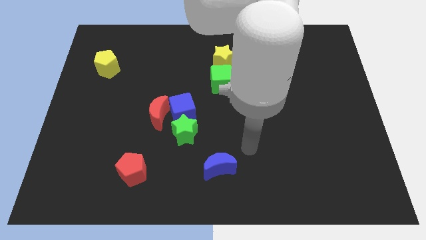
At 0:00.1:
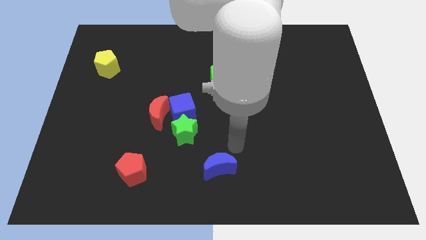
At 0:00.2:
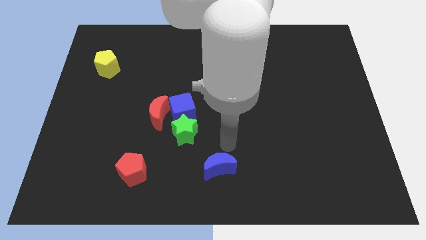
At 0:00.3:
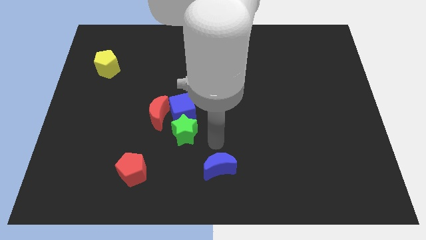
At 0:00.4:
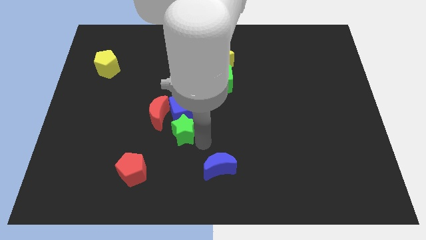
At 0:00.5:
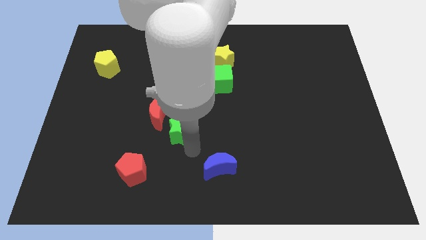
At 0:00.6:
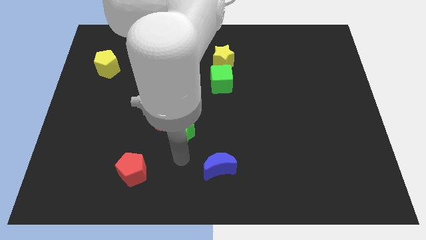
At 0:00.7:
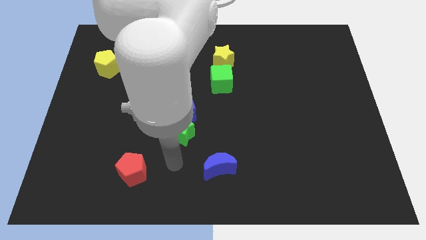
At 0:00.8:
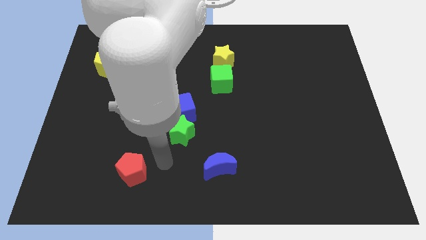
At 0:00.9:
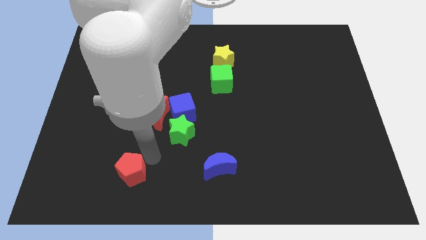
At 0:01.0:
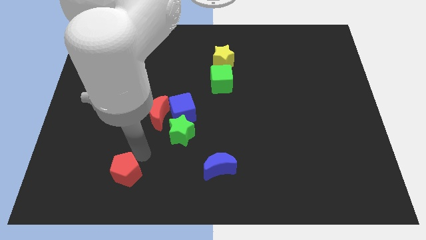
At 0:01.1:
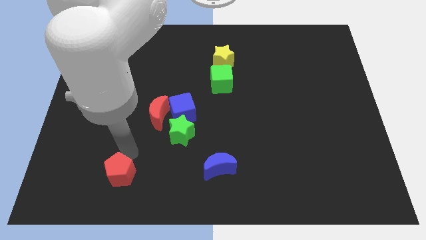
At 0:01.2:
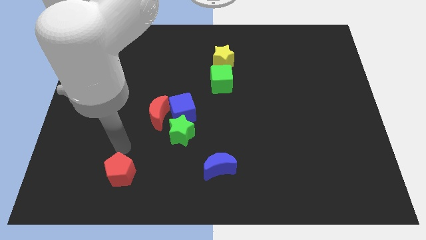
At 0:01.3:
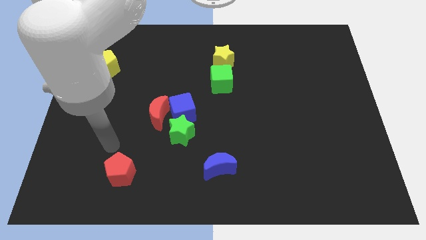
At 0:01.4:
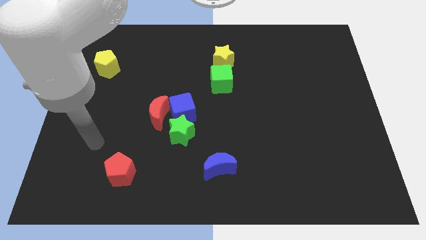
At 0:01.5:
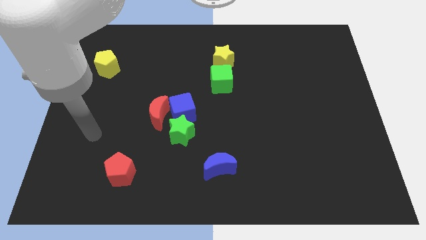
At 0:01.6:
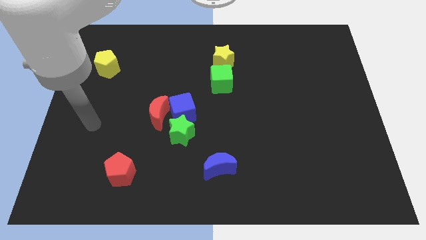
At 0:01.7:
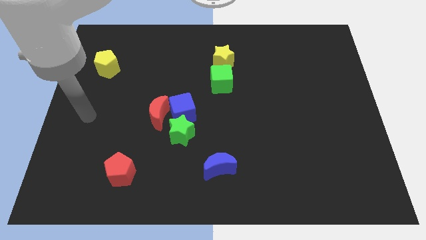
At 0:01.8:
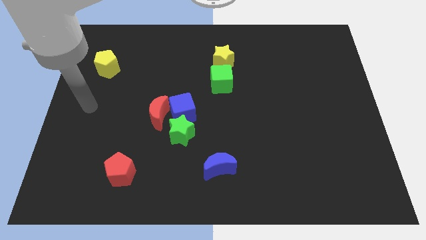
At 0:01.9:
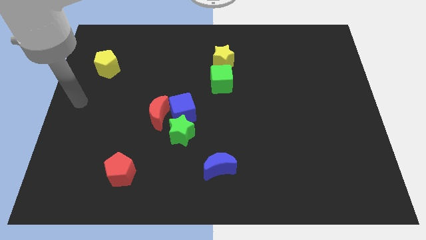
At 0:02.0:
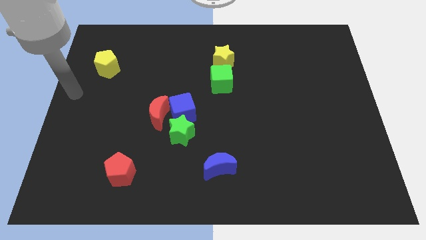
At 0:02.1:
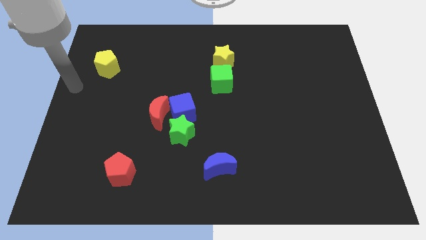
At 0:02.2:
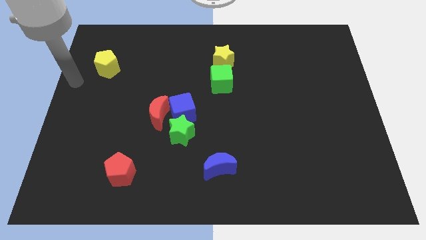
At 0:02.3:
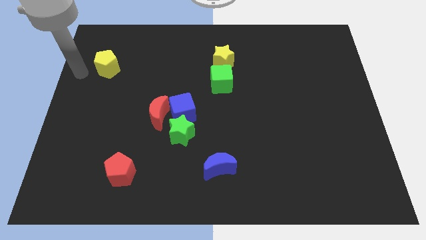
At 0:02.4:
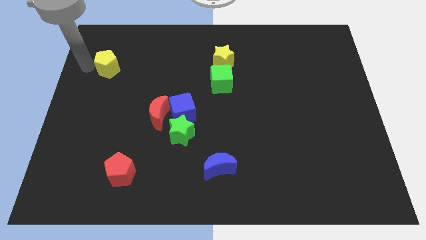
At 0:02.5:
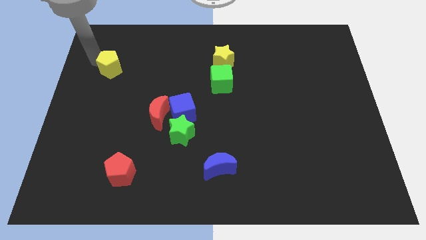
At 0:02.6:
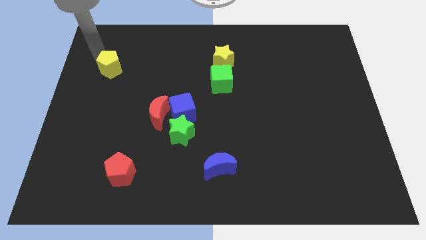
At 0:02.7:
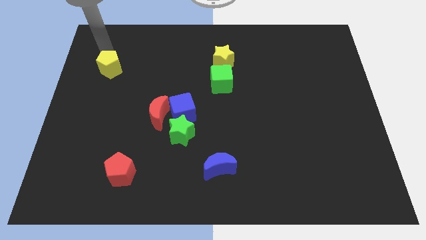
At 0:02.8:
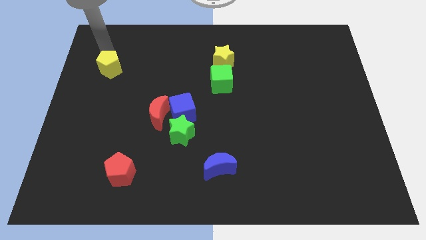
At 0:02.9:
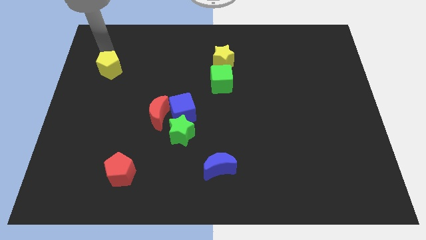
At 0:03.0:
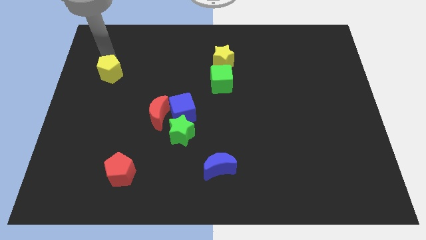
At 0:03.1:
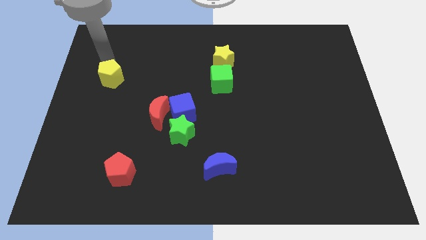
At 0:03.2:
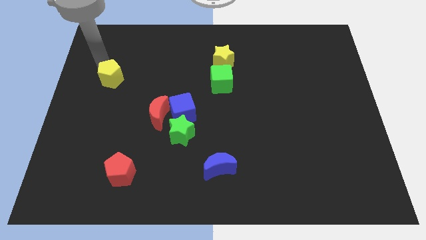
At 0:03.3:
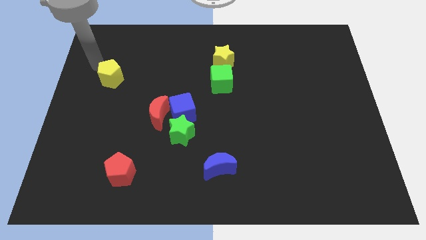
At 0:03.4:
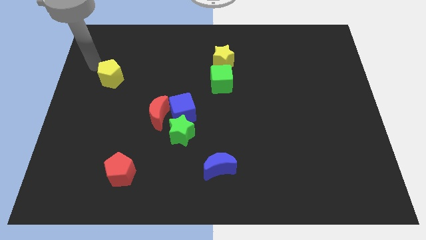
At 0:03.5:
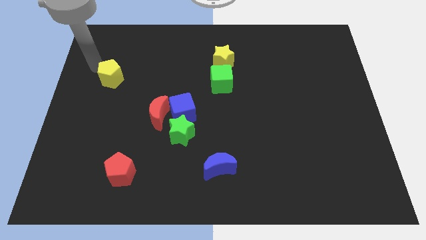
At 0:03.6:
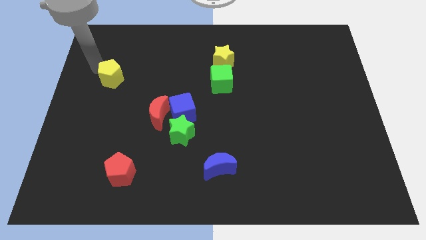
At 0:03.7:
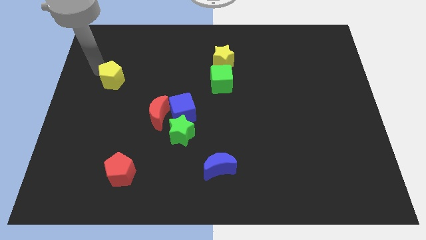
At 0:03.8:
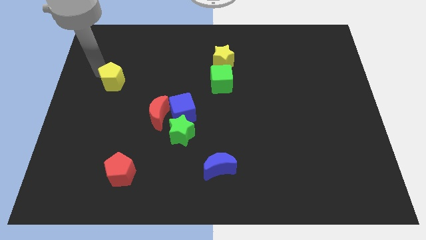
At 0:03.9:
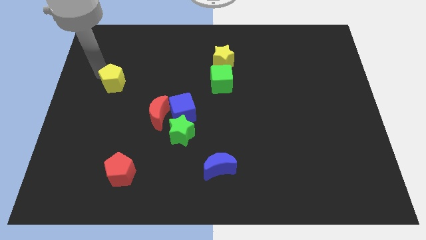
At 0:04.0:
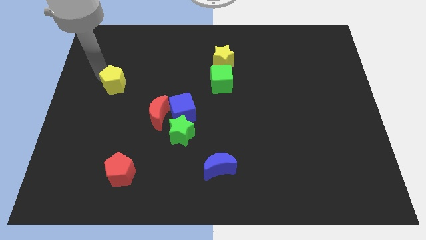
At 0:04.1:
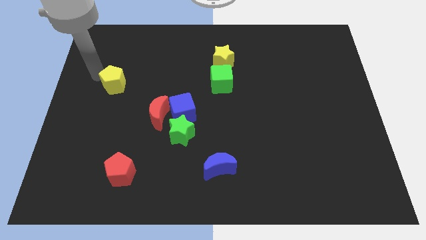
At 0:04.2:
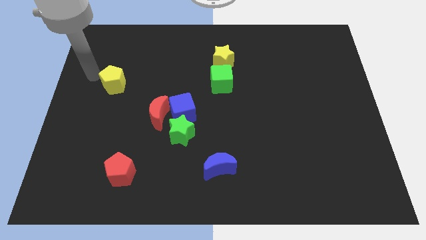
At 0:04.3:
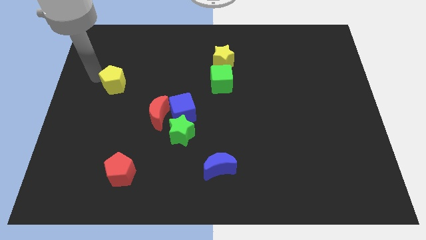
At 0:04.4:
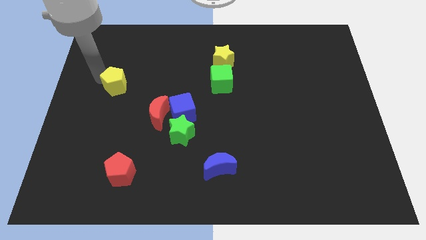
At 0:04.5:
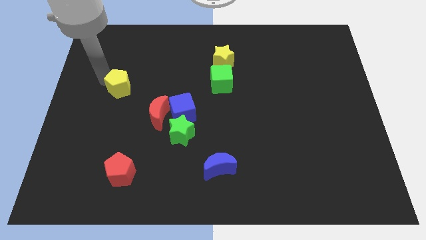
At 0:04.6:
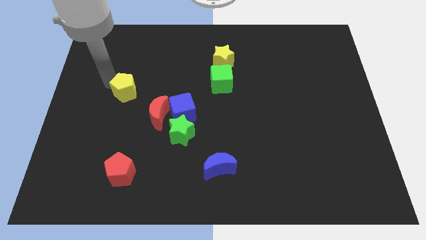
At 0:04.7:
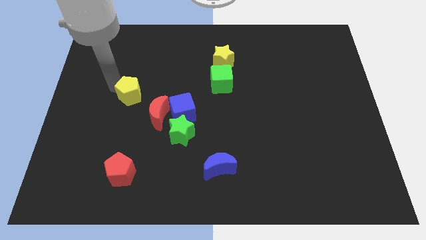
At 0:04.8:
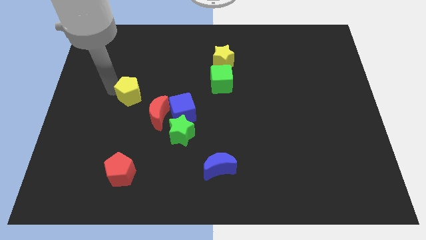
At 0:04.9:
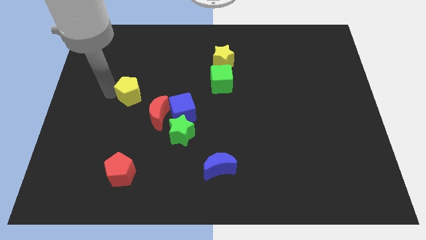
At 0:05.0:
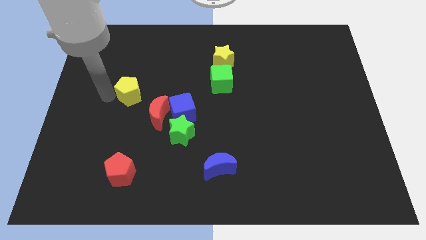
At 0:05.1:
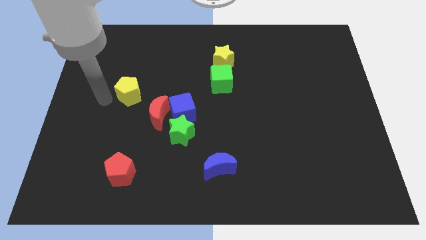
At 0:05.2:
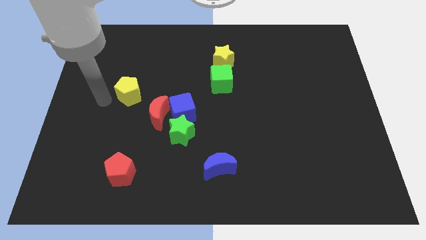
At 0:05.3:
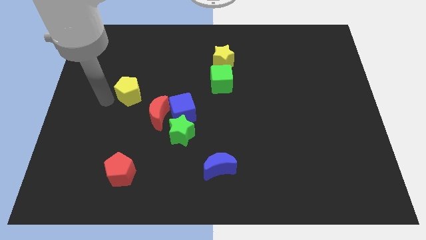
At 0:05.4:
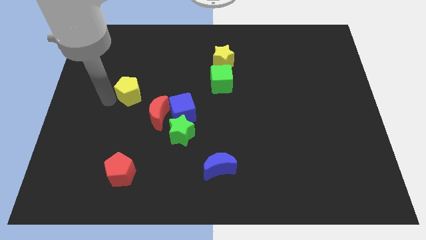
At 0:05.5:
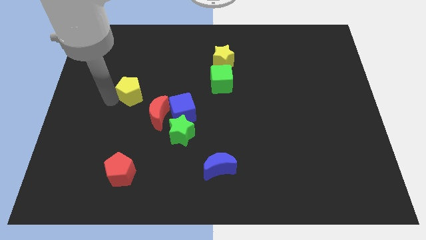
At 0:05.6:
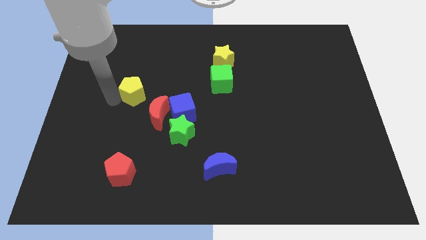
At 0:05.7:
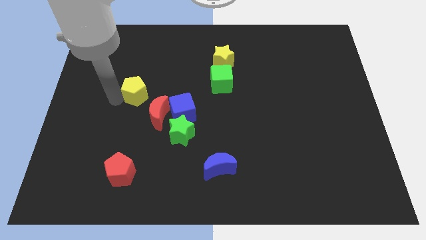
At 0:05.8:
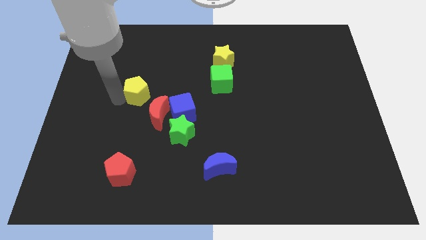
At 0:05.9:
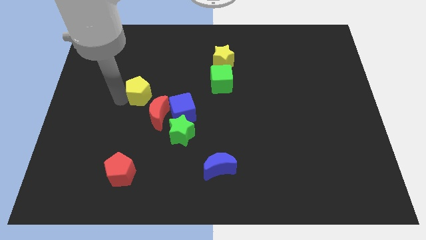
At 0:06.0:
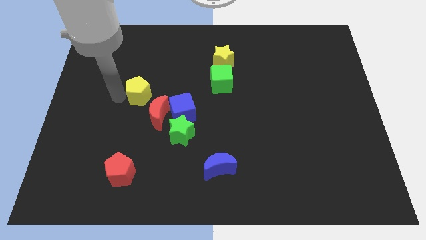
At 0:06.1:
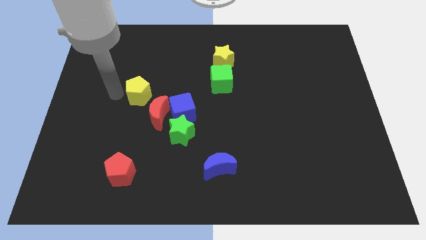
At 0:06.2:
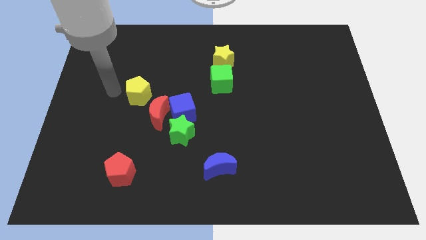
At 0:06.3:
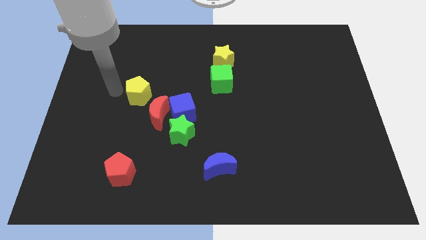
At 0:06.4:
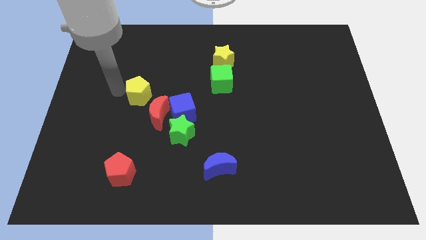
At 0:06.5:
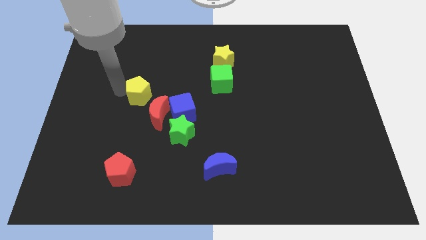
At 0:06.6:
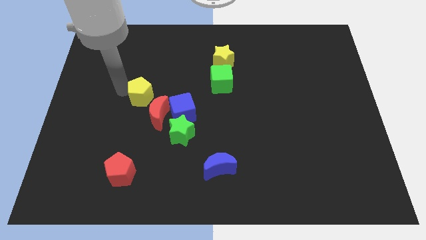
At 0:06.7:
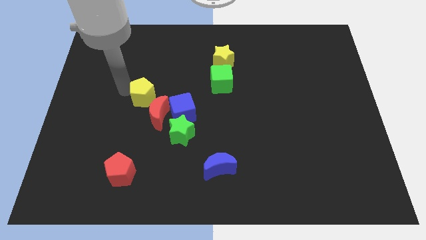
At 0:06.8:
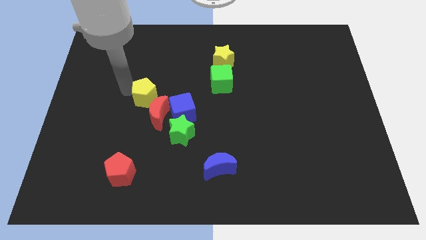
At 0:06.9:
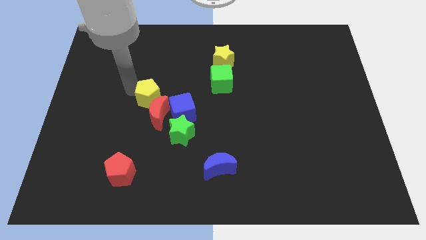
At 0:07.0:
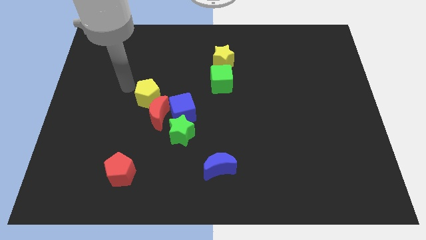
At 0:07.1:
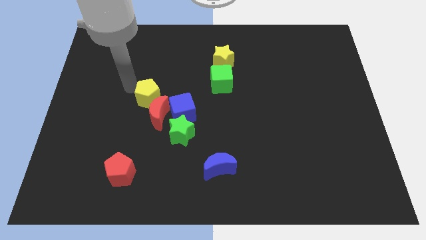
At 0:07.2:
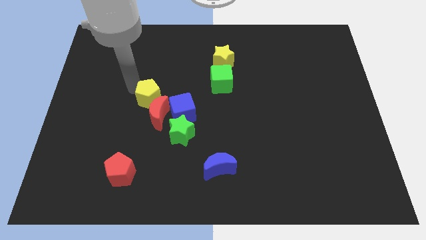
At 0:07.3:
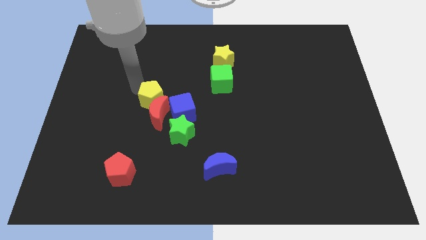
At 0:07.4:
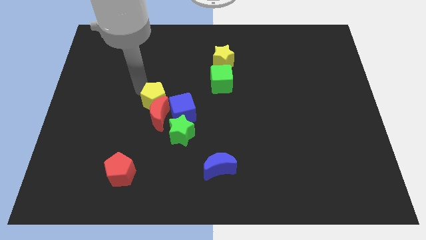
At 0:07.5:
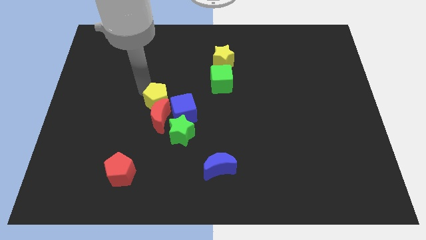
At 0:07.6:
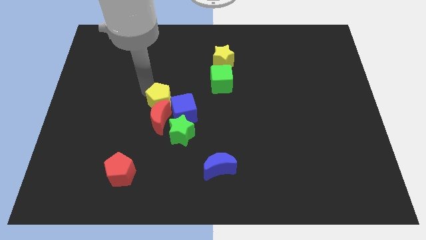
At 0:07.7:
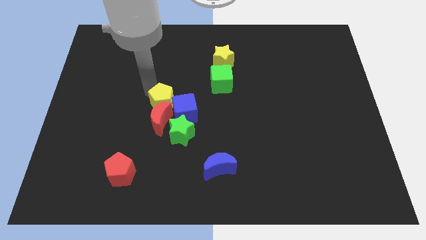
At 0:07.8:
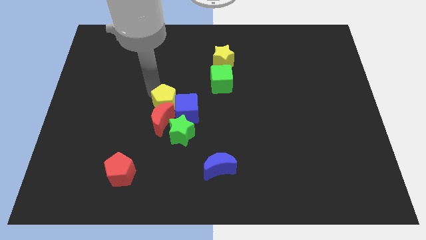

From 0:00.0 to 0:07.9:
move the yellow pentagon to the blue cube
